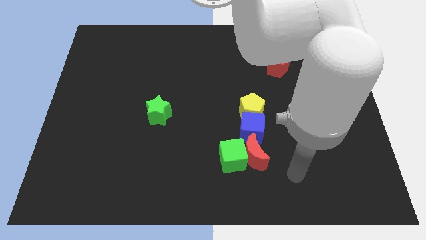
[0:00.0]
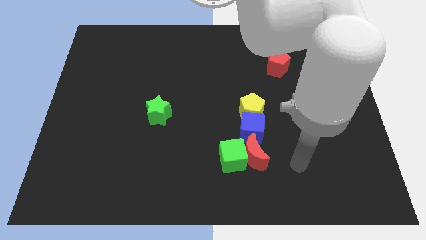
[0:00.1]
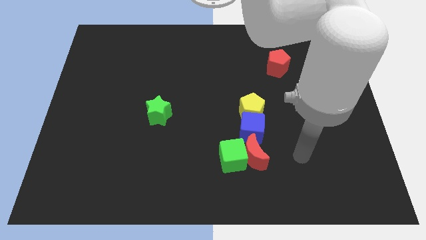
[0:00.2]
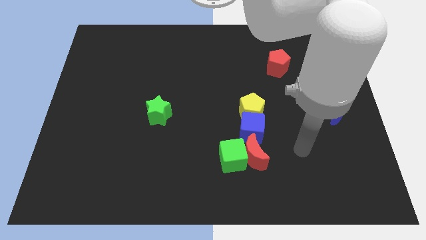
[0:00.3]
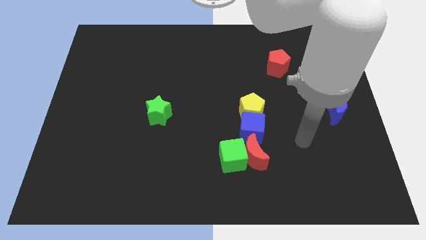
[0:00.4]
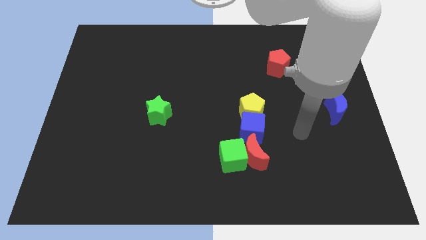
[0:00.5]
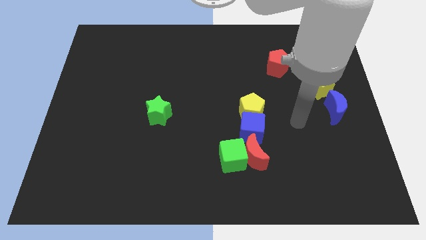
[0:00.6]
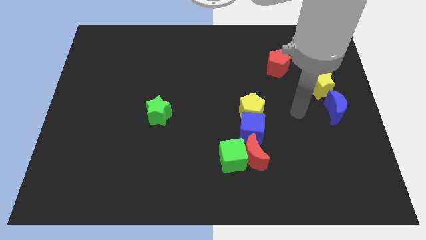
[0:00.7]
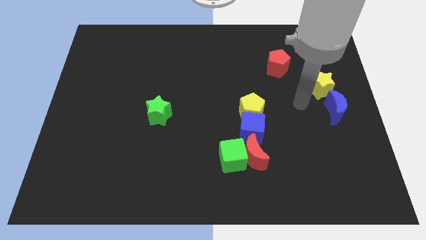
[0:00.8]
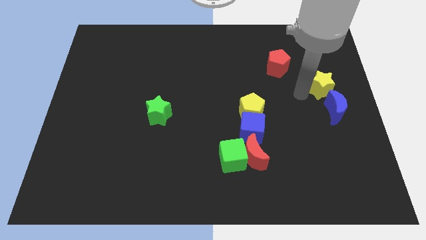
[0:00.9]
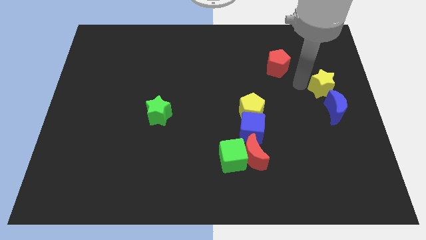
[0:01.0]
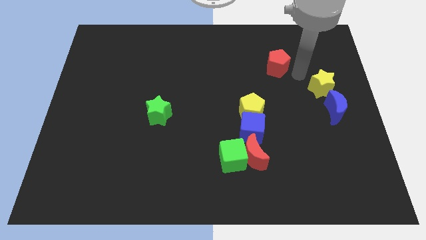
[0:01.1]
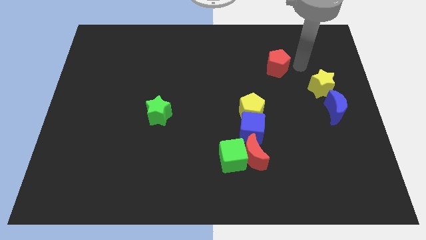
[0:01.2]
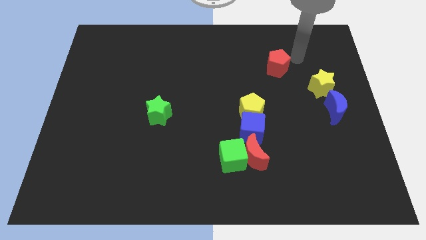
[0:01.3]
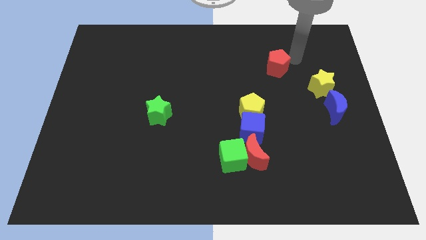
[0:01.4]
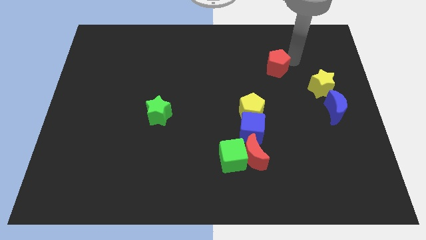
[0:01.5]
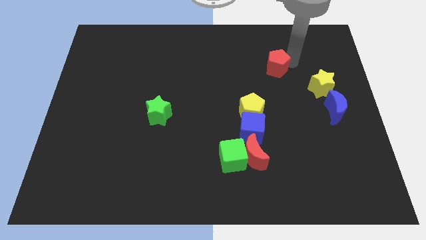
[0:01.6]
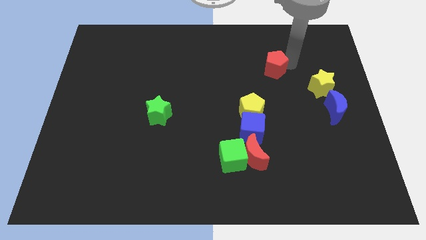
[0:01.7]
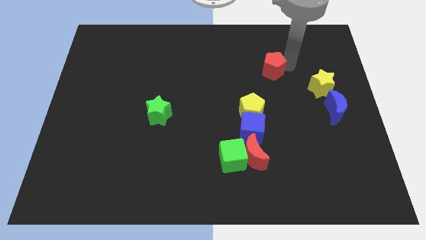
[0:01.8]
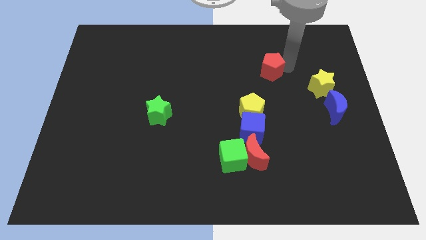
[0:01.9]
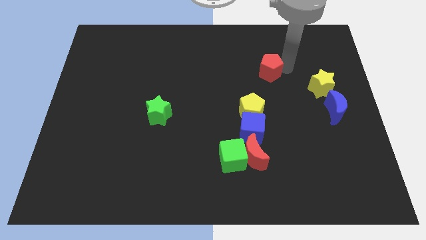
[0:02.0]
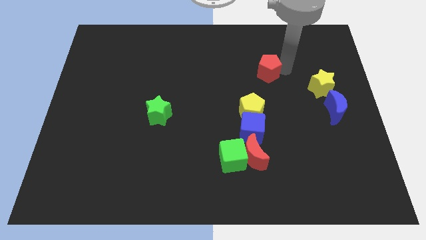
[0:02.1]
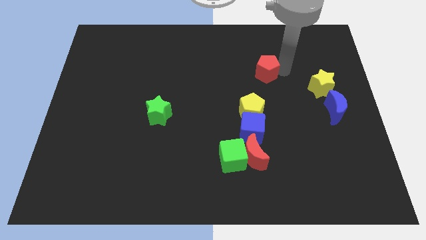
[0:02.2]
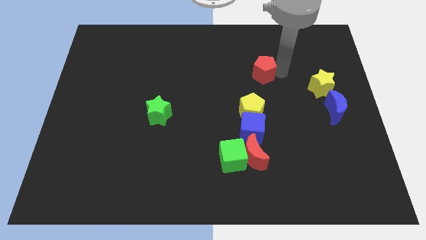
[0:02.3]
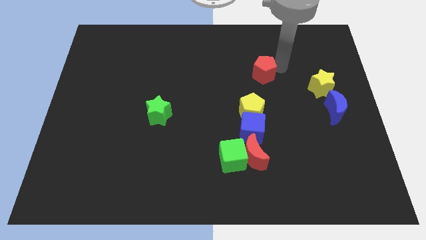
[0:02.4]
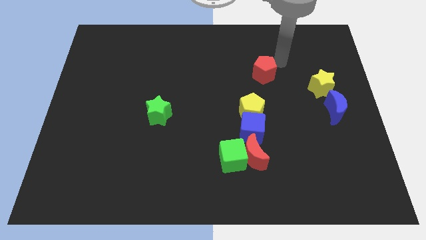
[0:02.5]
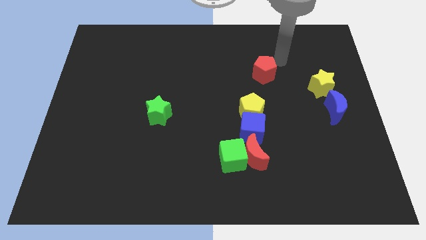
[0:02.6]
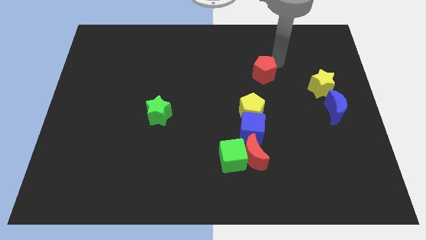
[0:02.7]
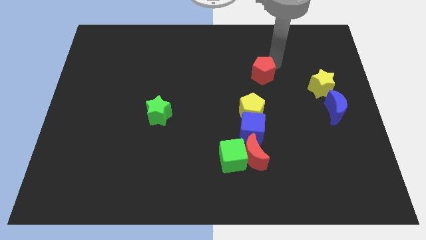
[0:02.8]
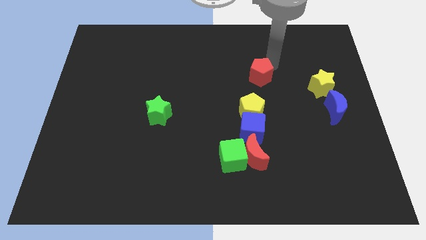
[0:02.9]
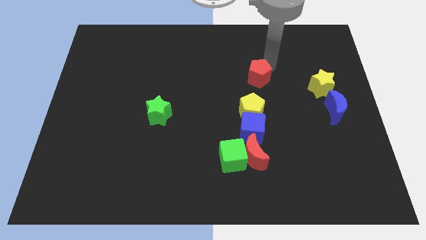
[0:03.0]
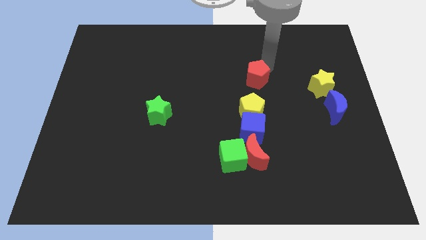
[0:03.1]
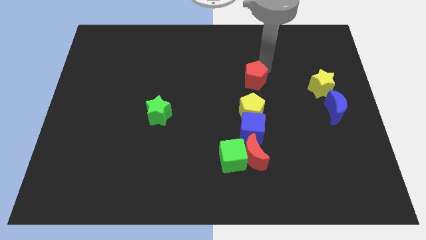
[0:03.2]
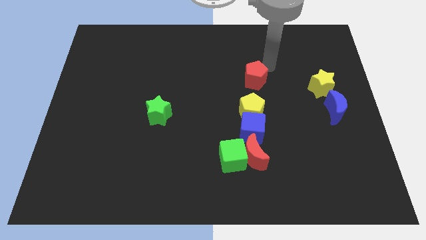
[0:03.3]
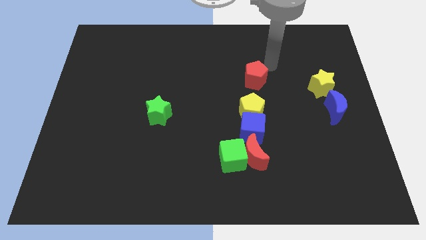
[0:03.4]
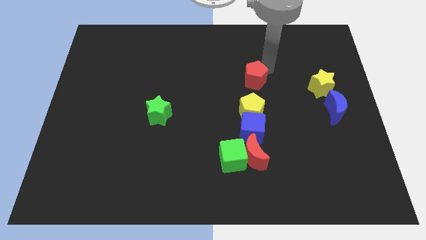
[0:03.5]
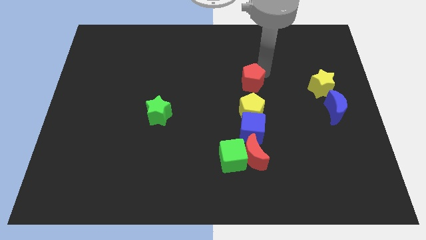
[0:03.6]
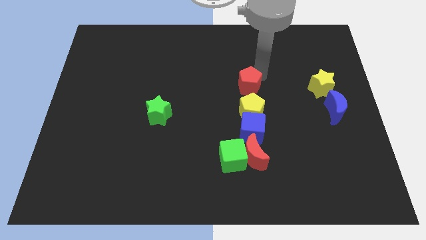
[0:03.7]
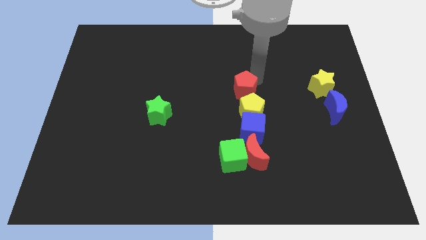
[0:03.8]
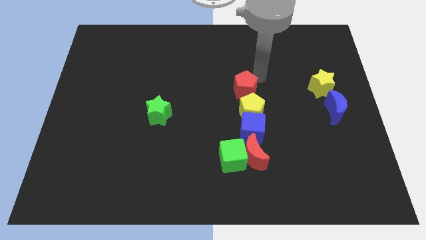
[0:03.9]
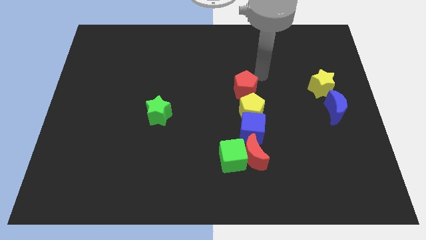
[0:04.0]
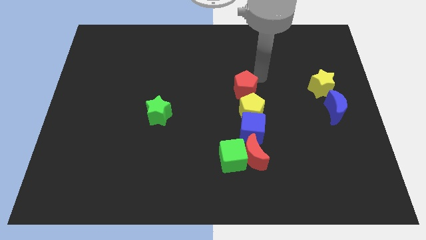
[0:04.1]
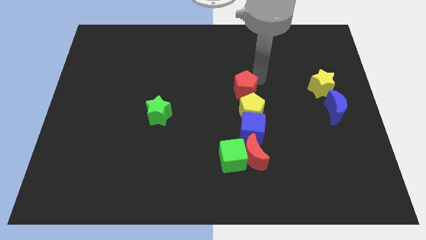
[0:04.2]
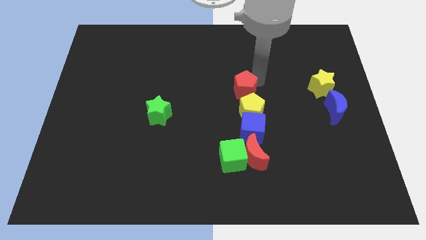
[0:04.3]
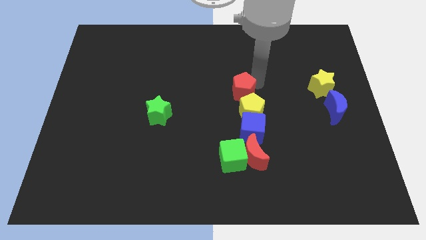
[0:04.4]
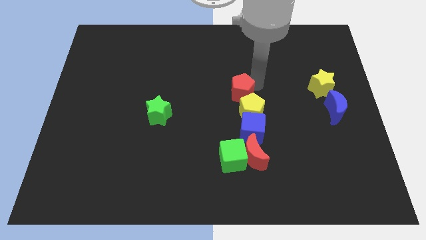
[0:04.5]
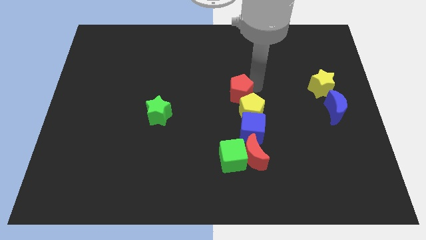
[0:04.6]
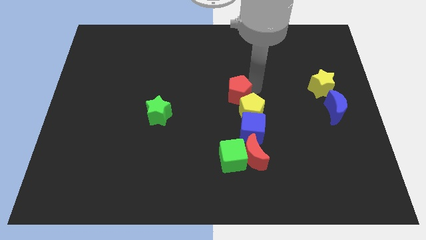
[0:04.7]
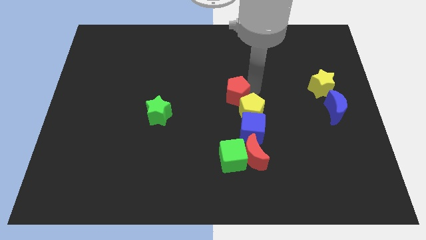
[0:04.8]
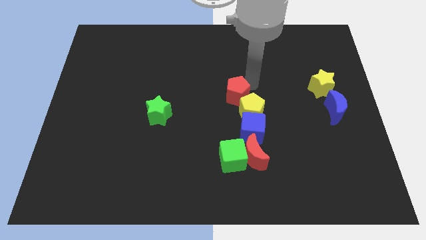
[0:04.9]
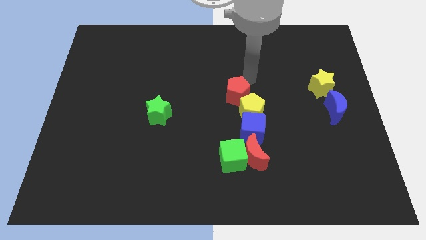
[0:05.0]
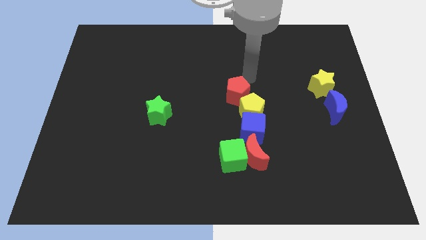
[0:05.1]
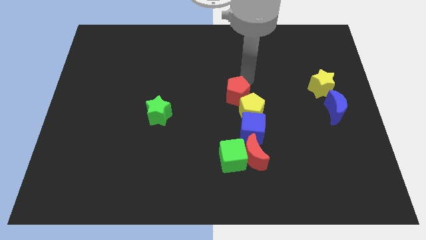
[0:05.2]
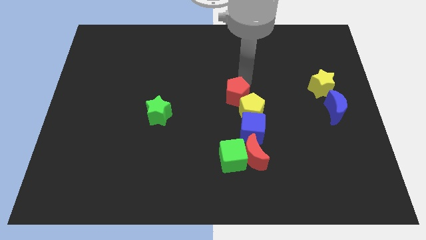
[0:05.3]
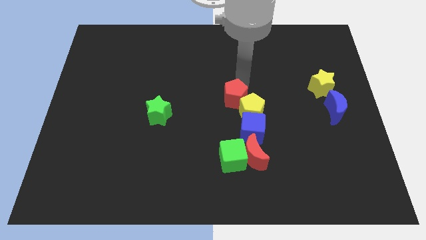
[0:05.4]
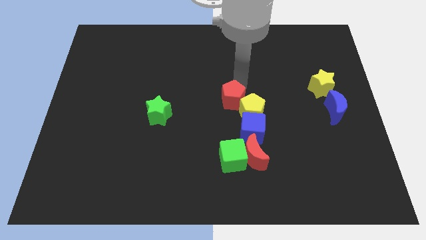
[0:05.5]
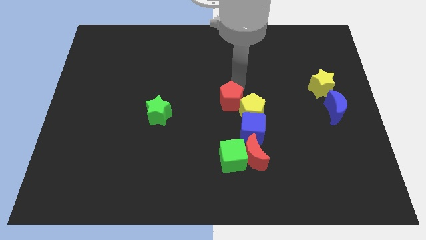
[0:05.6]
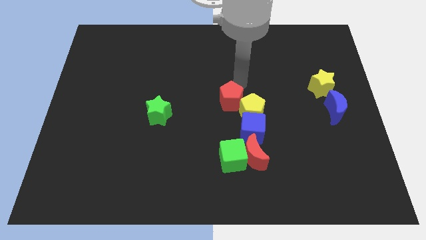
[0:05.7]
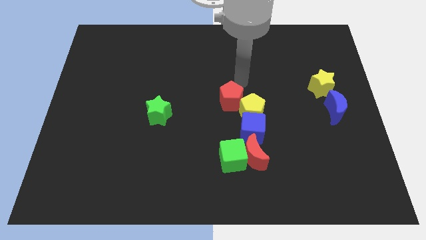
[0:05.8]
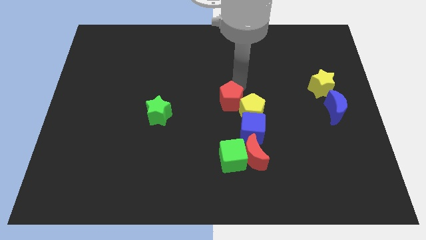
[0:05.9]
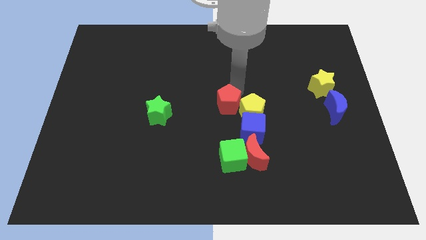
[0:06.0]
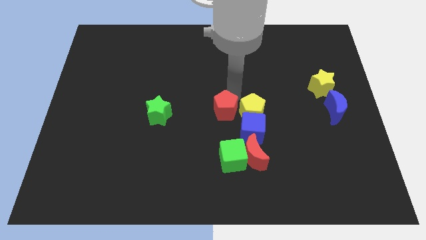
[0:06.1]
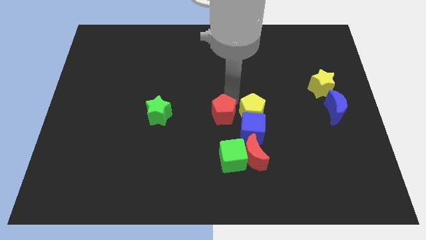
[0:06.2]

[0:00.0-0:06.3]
slide the red pentagon downwards and then left

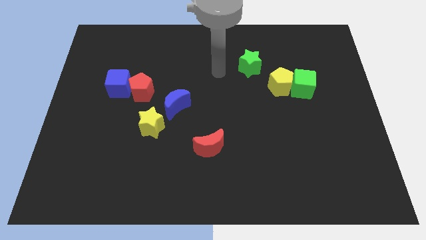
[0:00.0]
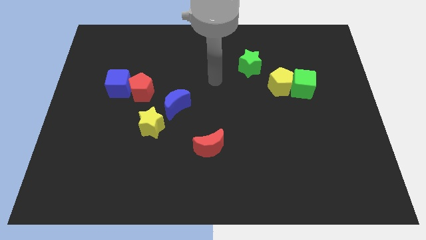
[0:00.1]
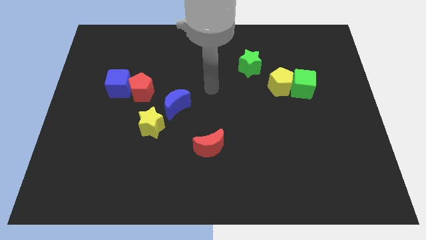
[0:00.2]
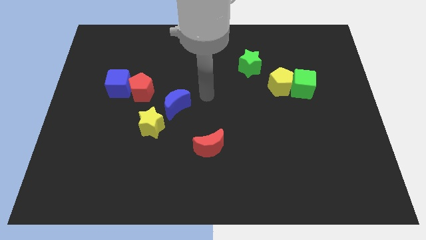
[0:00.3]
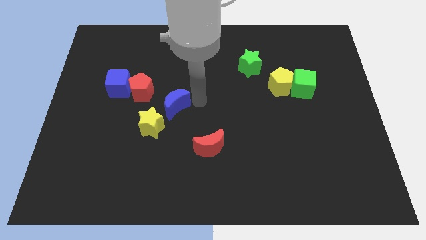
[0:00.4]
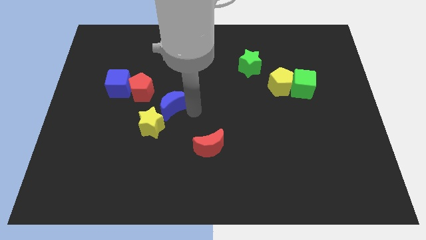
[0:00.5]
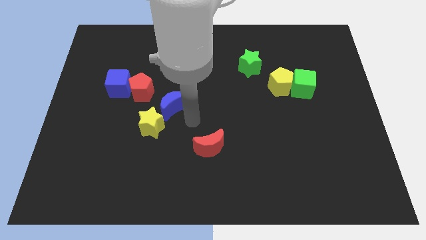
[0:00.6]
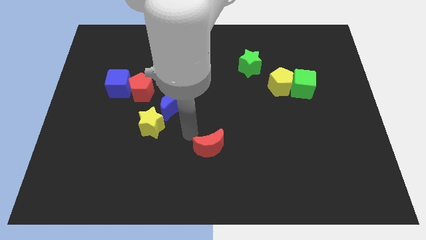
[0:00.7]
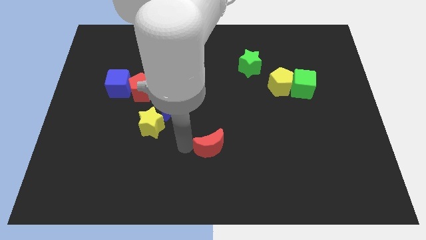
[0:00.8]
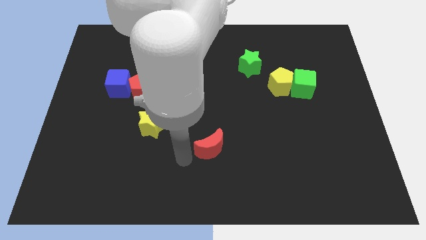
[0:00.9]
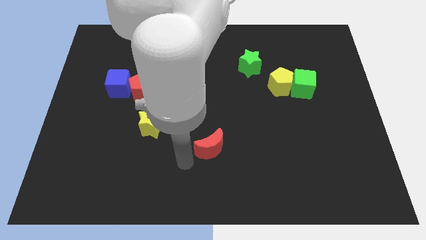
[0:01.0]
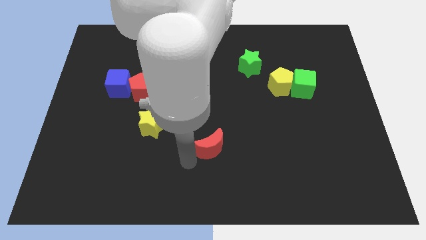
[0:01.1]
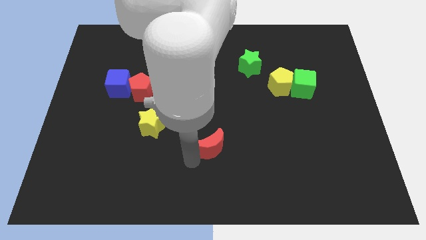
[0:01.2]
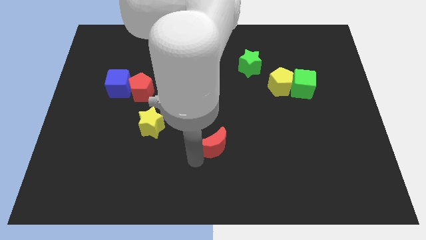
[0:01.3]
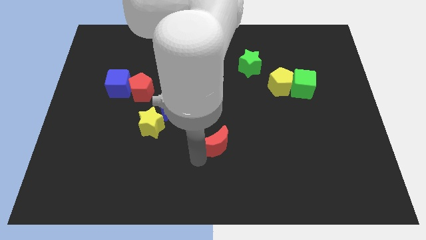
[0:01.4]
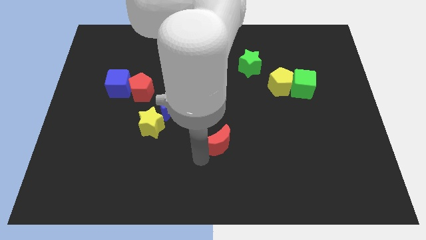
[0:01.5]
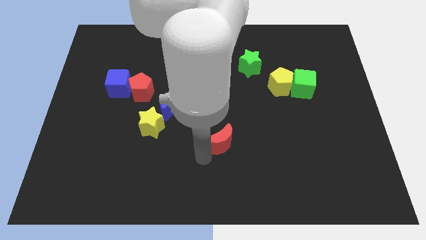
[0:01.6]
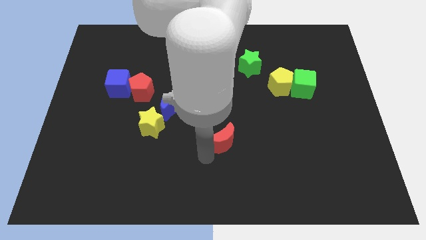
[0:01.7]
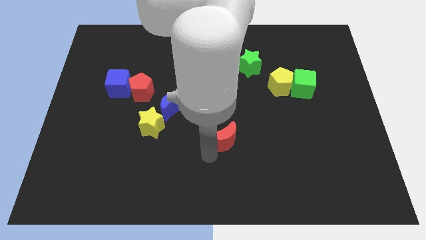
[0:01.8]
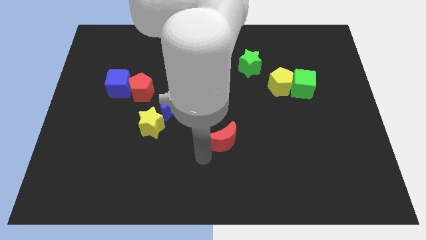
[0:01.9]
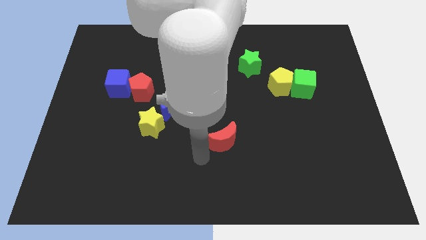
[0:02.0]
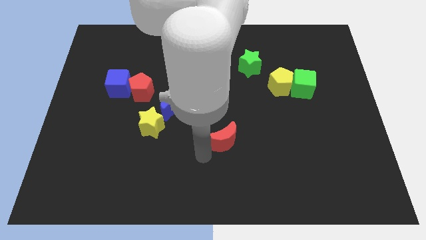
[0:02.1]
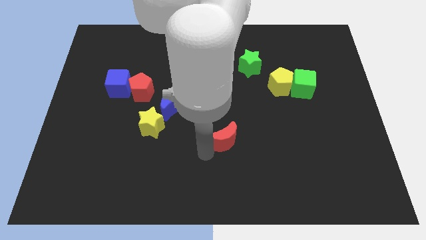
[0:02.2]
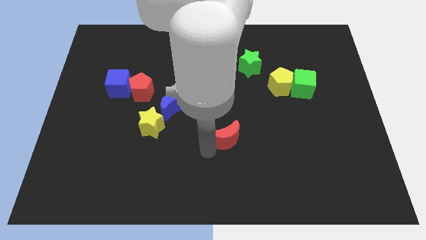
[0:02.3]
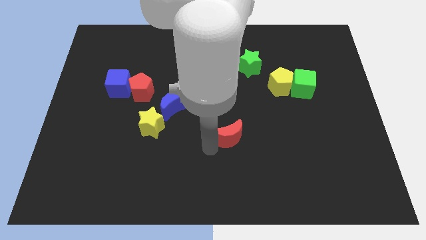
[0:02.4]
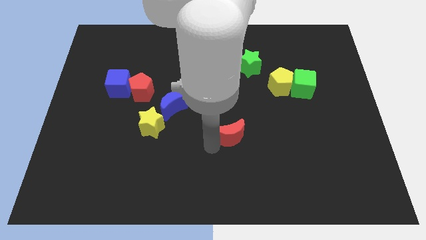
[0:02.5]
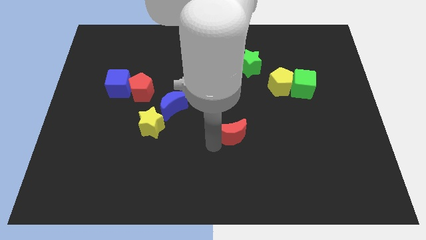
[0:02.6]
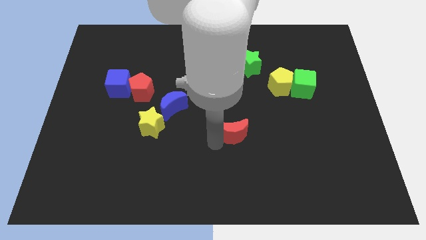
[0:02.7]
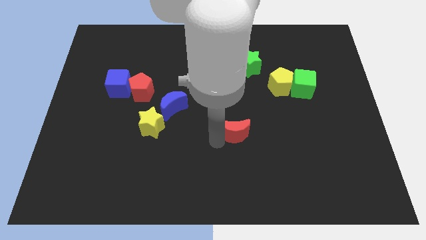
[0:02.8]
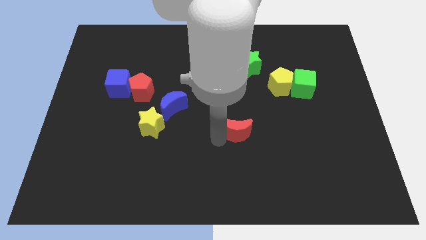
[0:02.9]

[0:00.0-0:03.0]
slide the red moon slightly diagonally upwards and to the right
